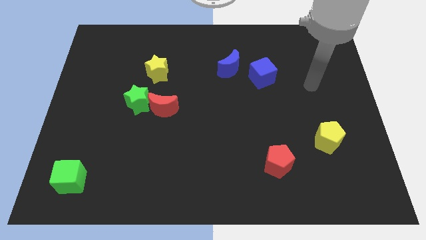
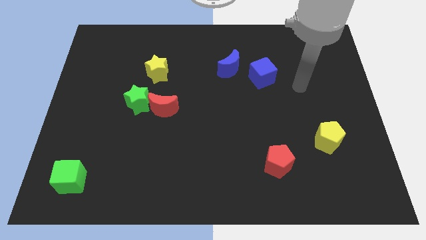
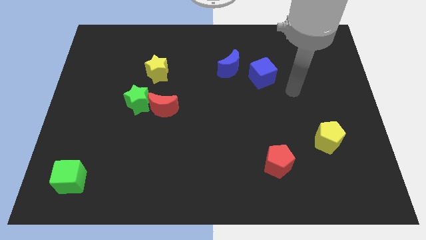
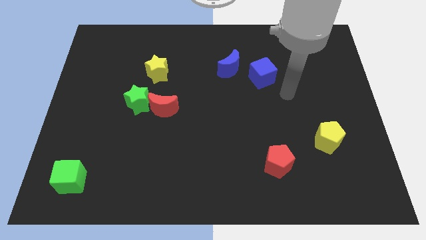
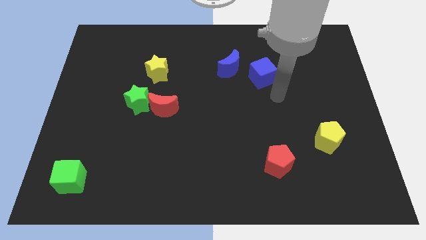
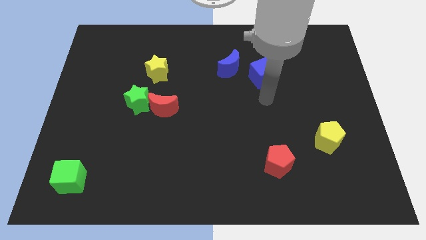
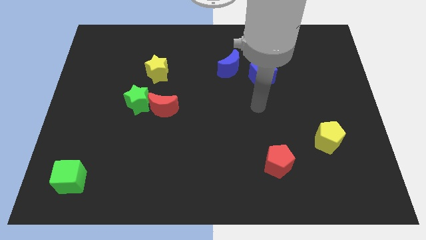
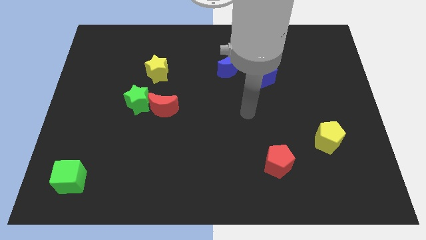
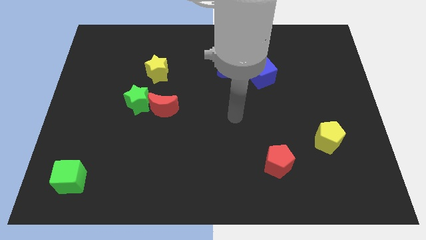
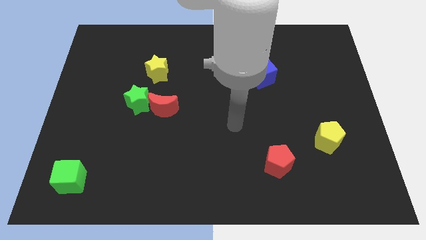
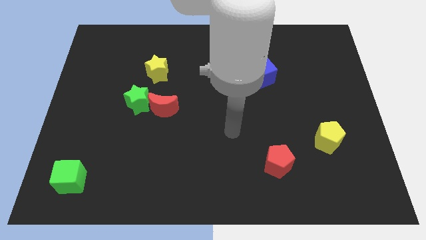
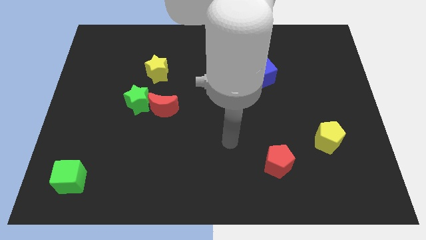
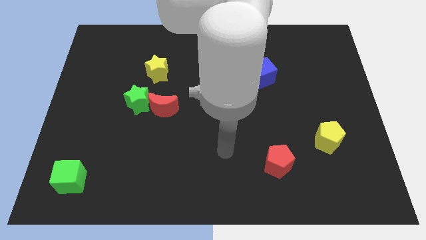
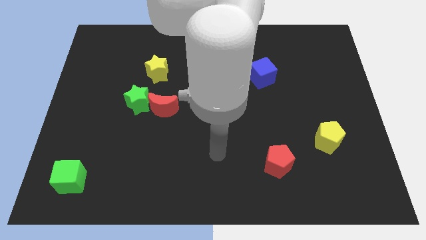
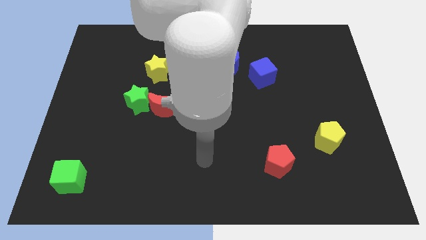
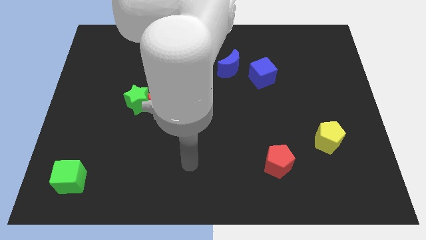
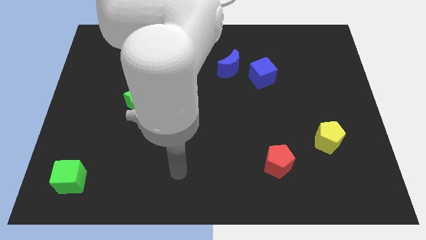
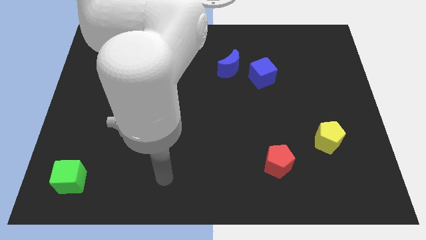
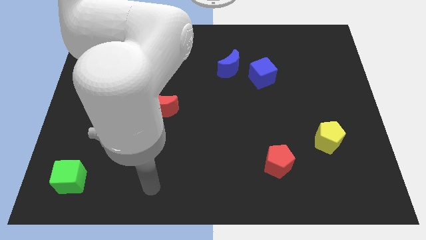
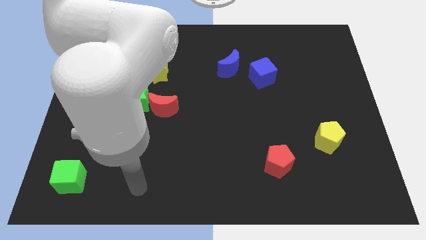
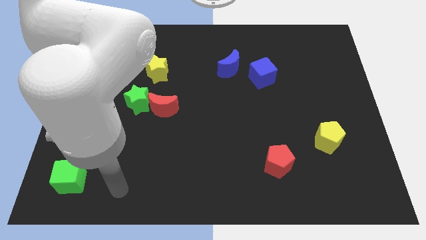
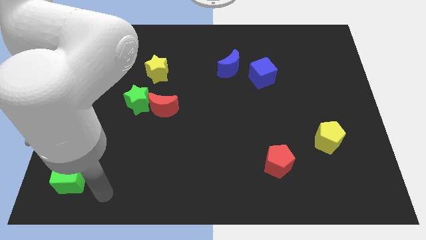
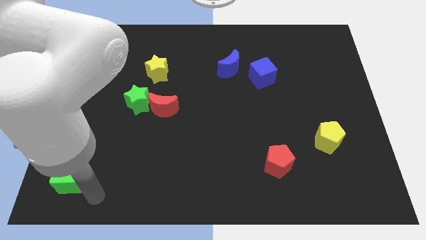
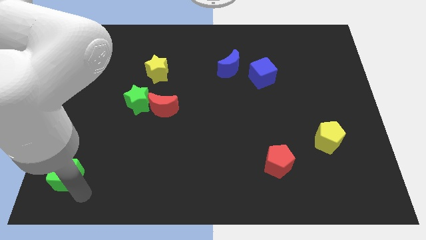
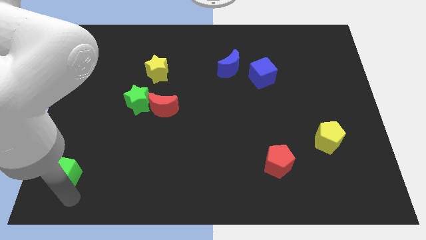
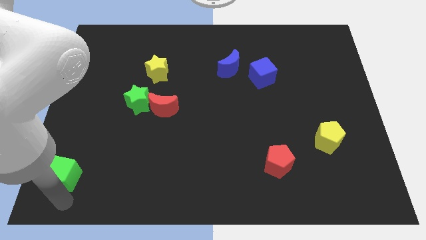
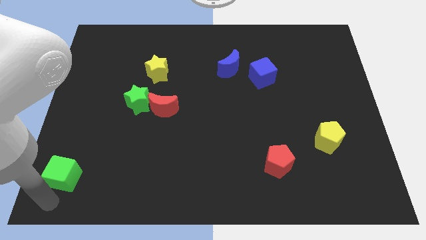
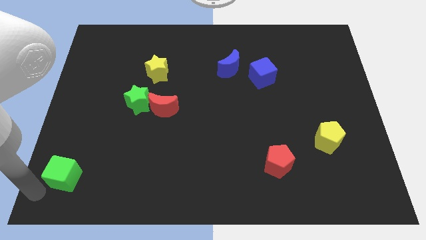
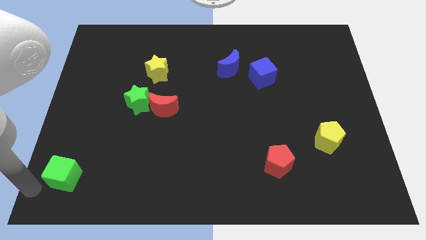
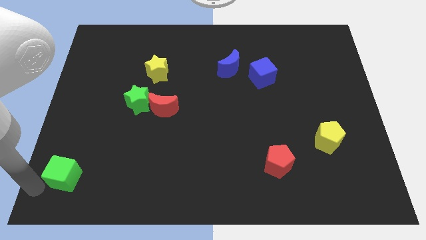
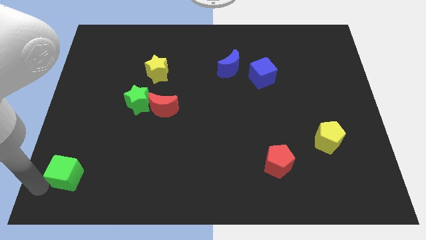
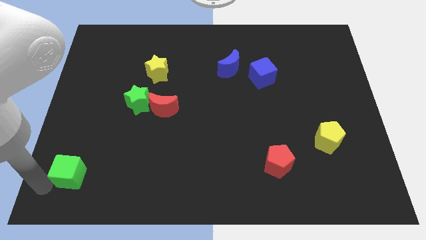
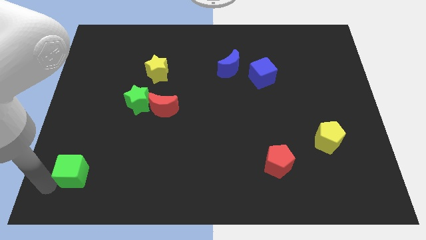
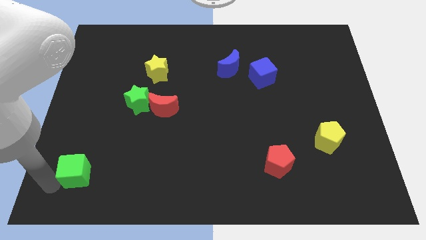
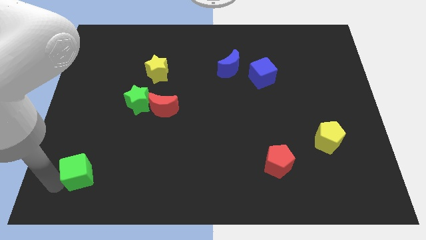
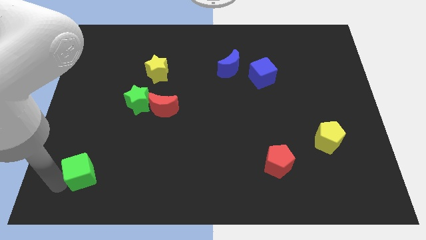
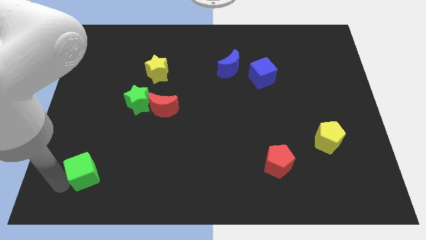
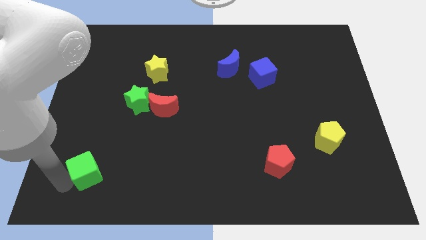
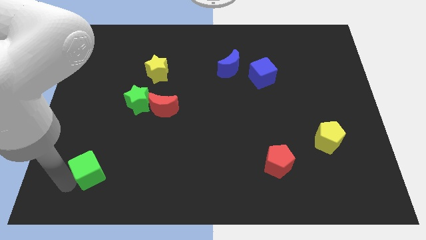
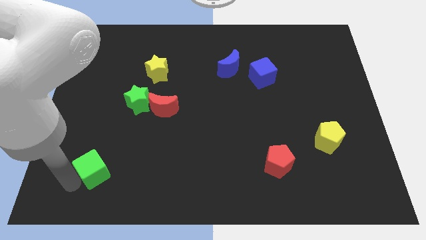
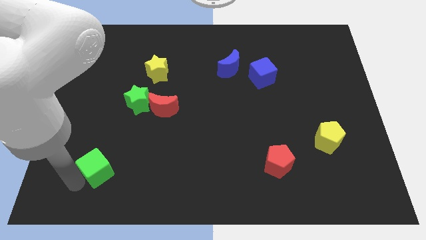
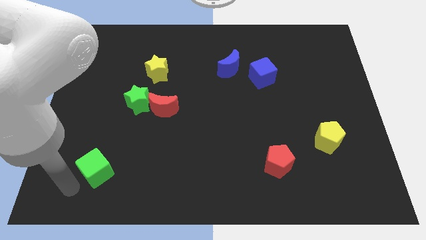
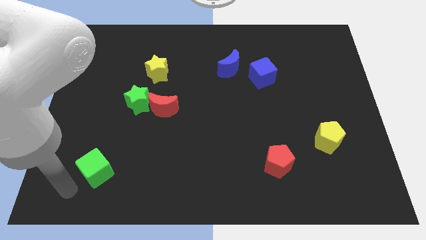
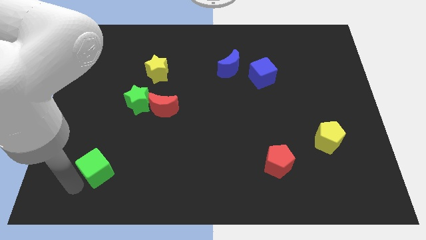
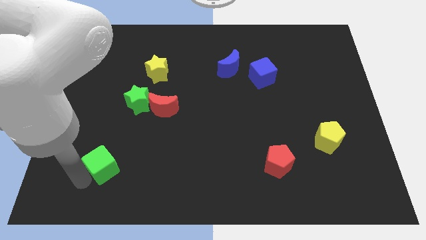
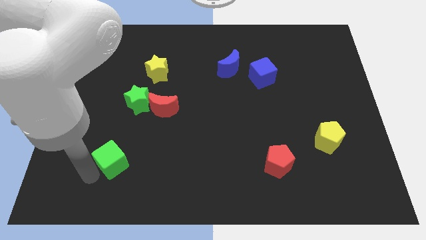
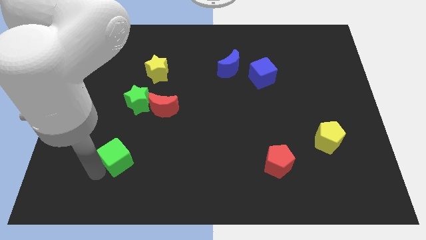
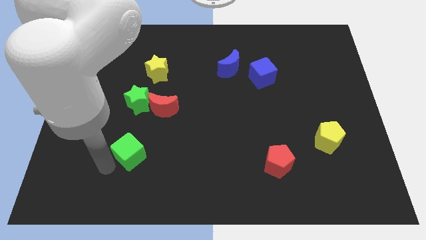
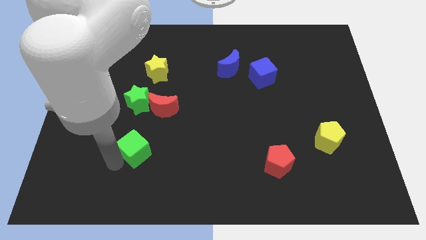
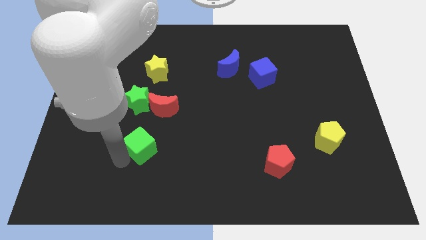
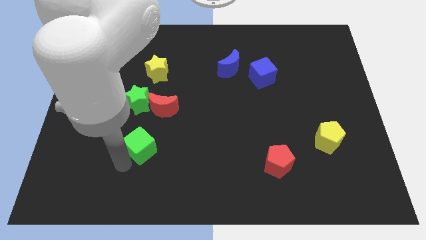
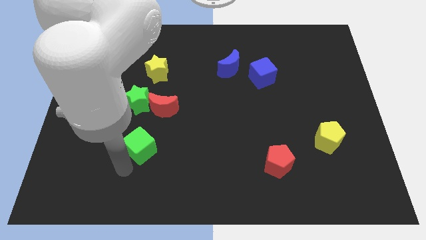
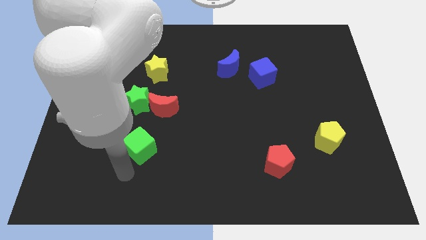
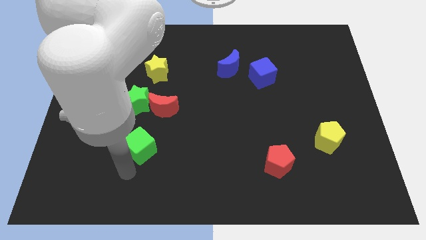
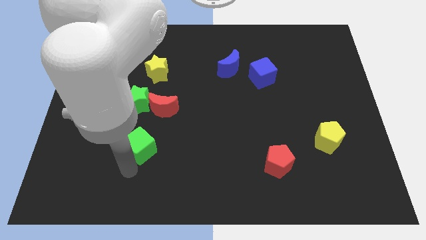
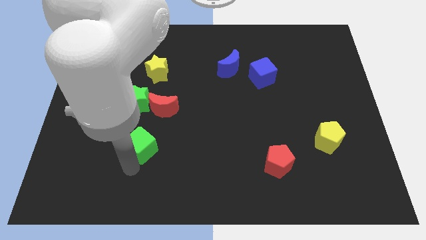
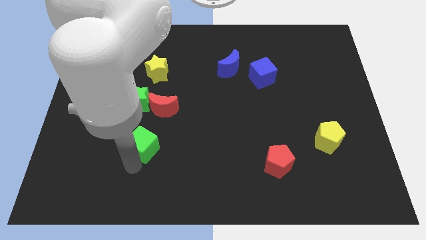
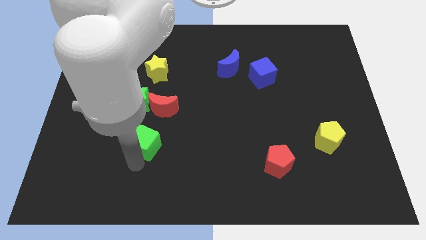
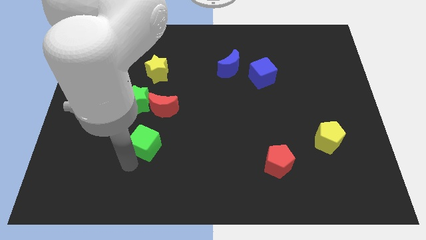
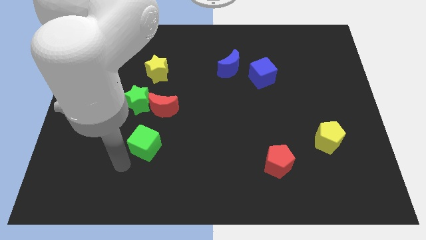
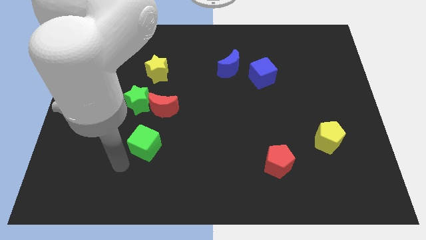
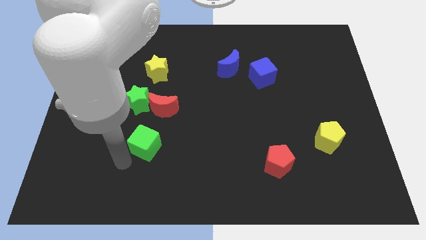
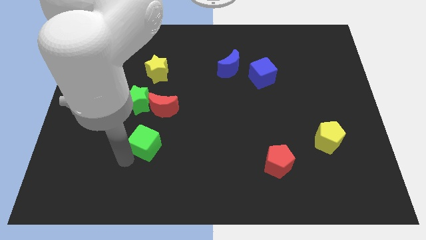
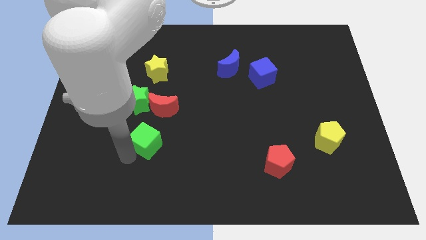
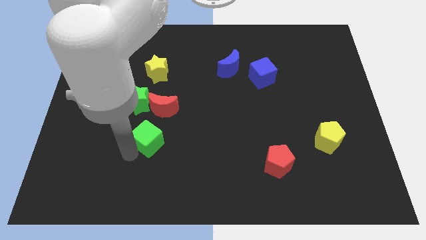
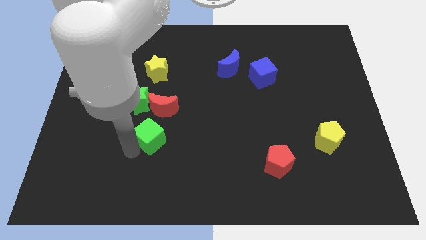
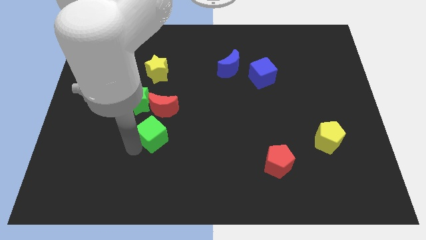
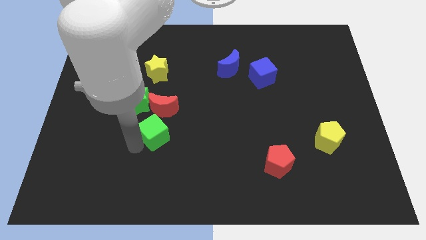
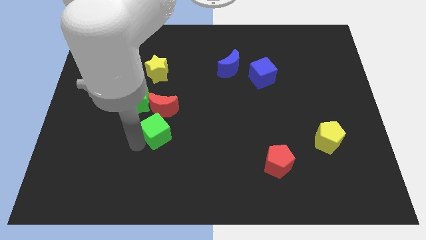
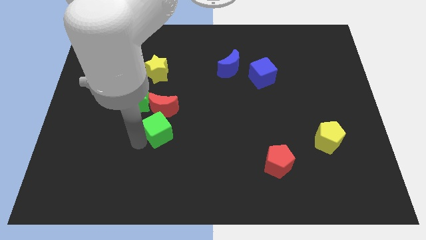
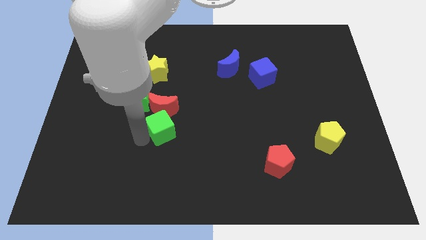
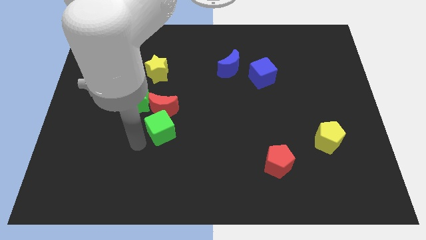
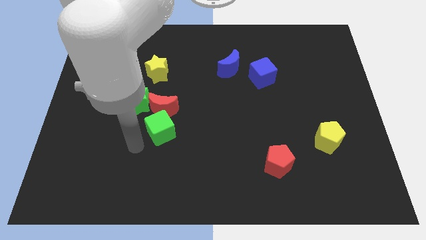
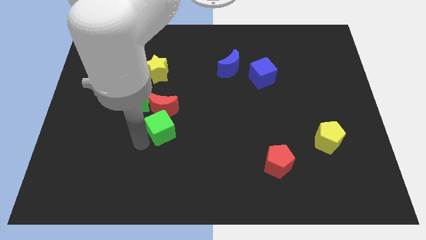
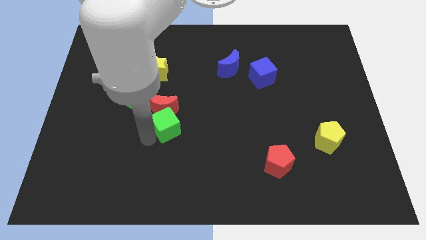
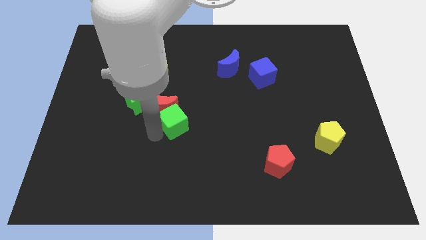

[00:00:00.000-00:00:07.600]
push the green cube to the middle of the board
